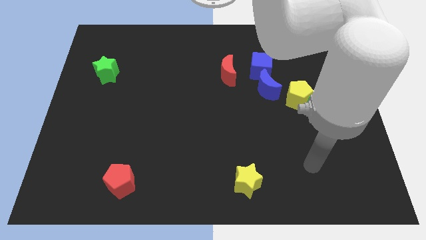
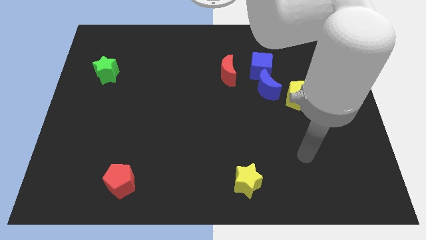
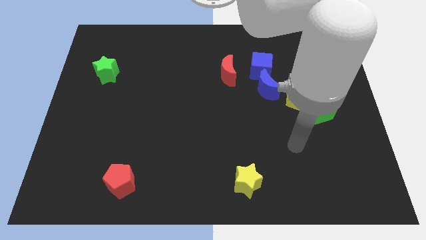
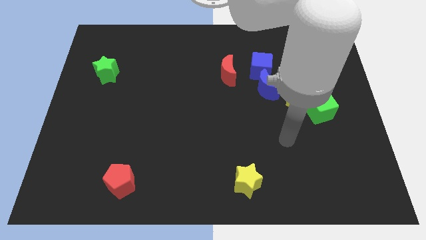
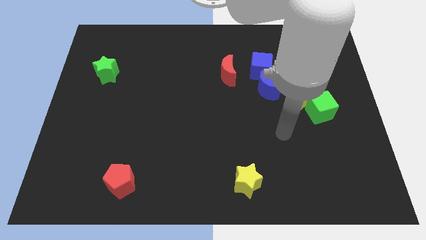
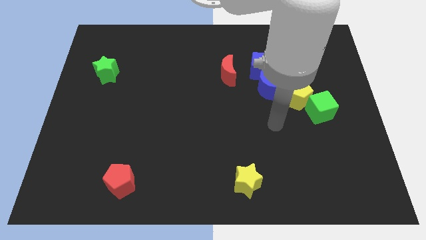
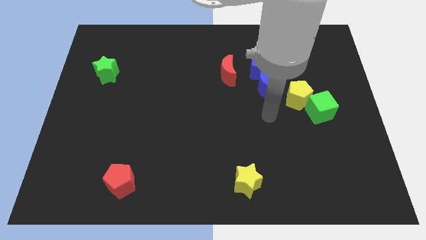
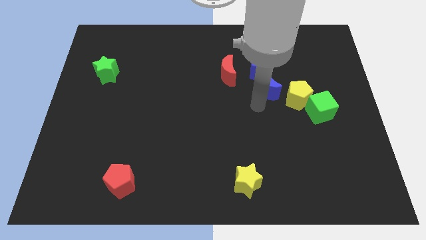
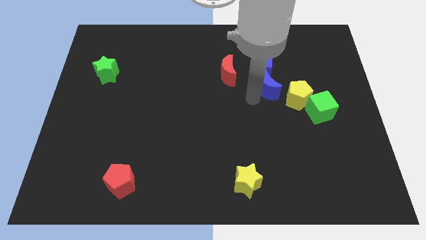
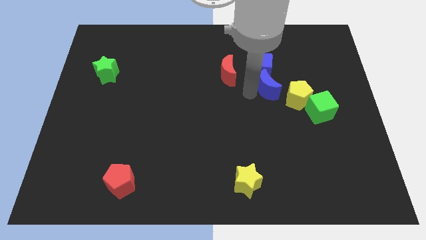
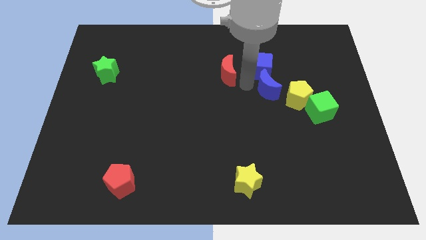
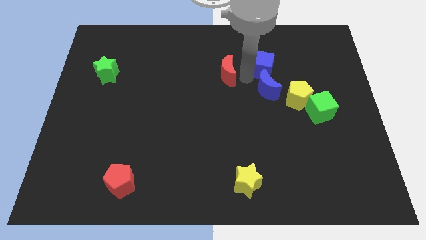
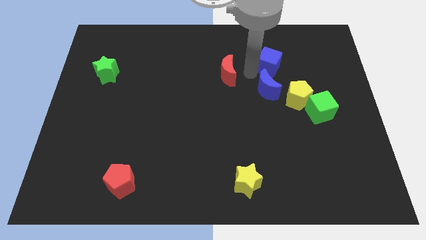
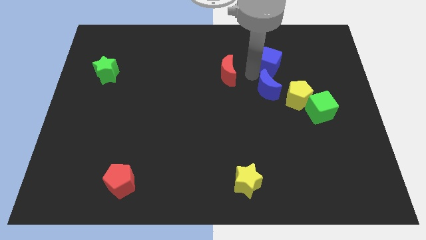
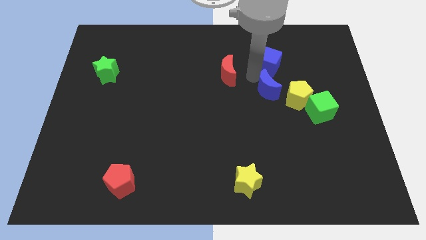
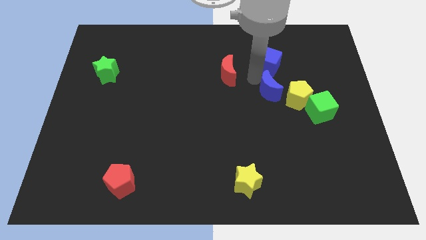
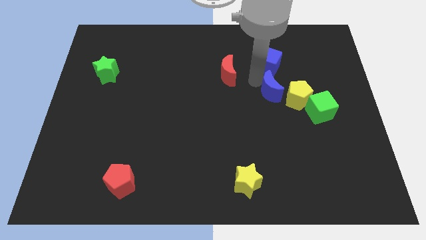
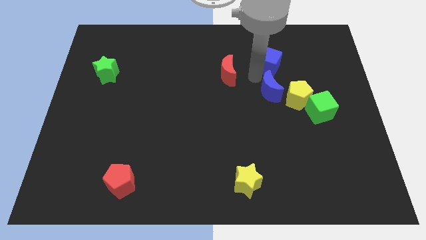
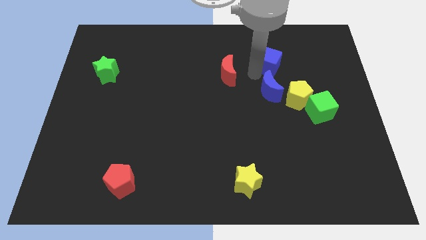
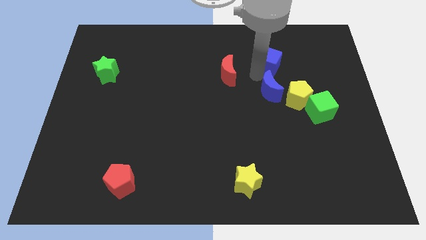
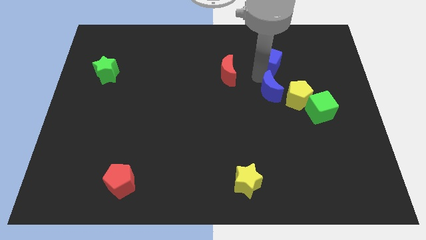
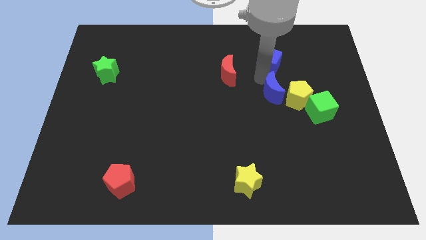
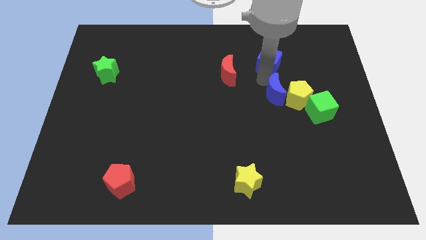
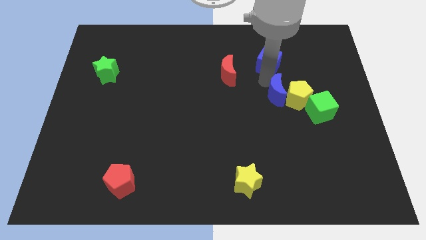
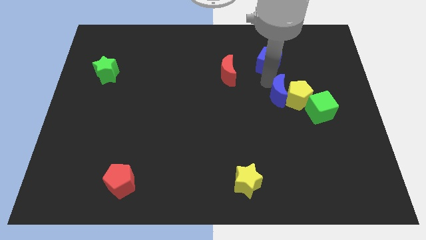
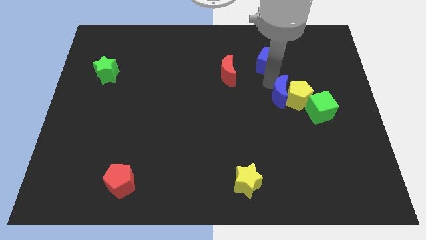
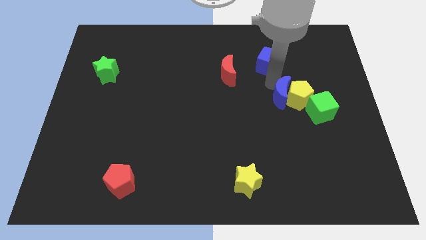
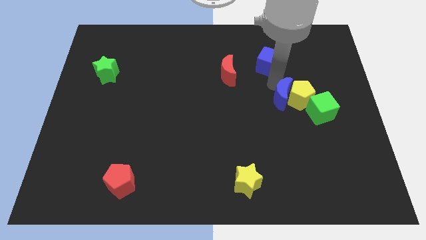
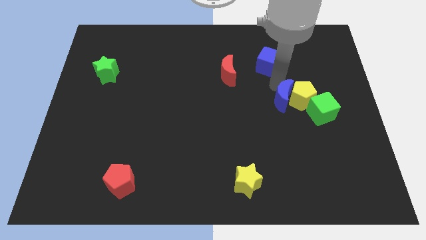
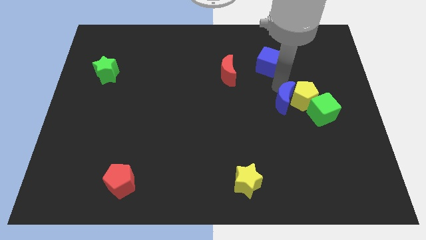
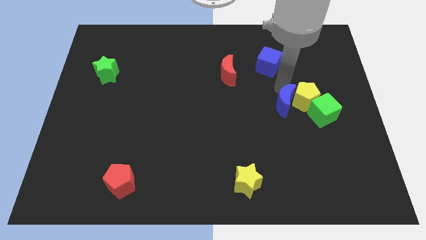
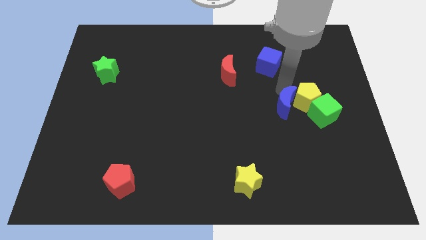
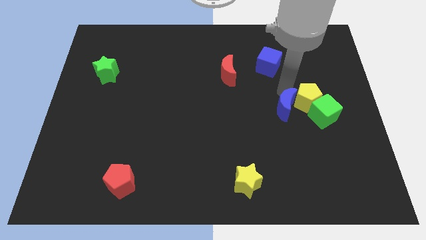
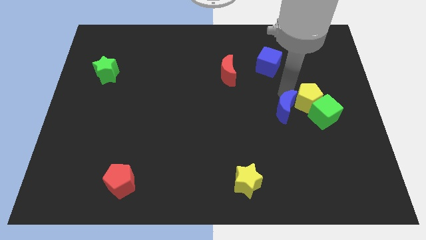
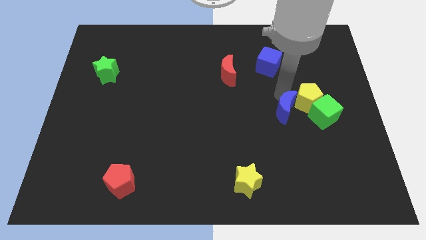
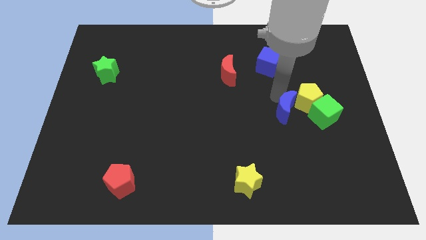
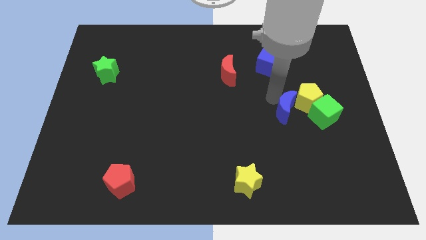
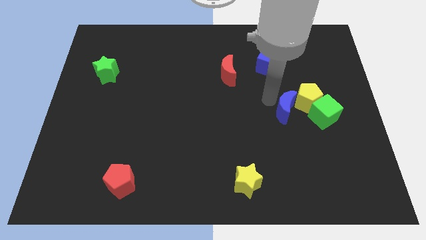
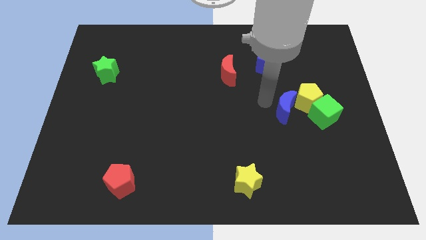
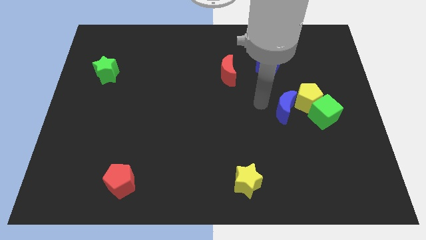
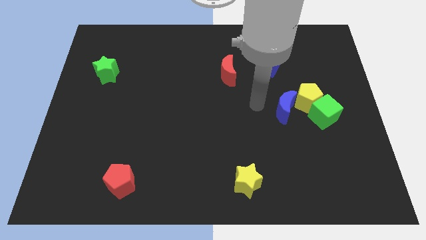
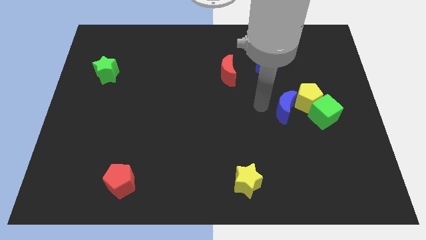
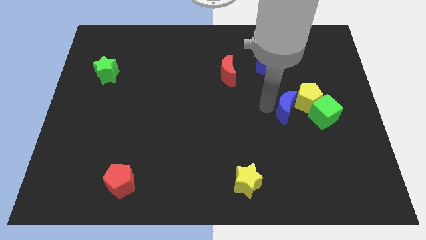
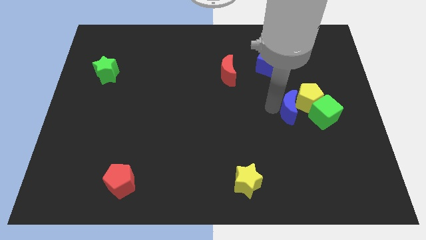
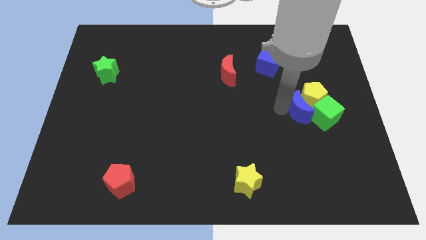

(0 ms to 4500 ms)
move the blue moon towards the green cube

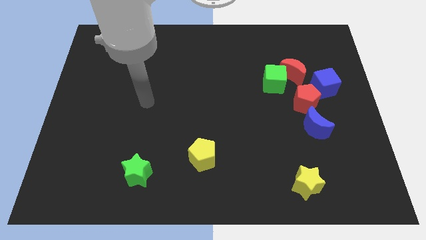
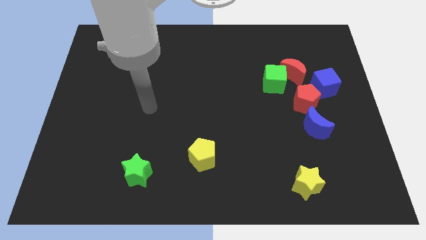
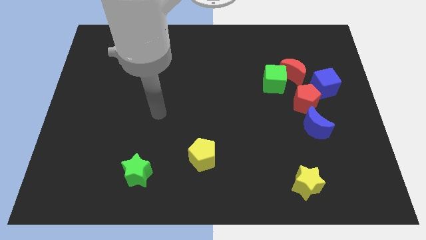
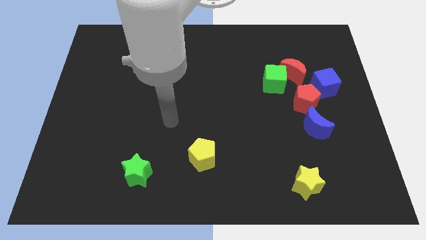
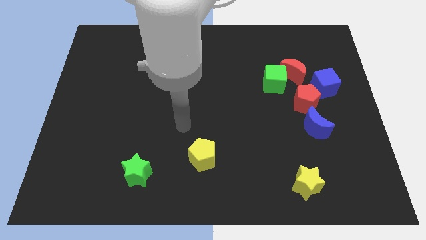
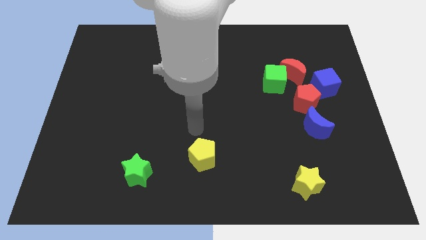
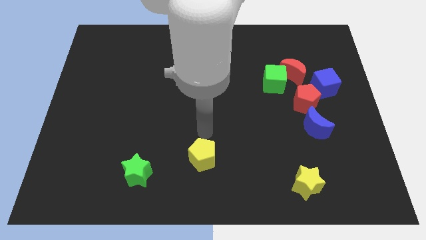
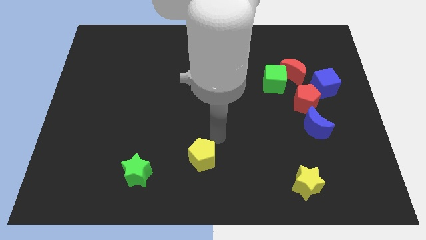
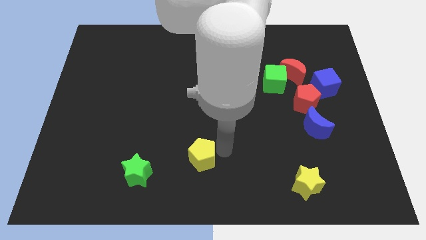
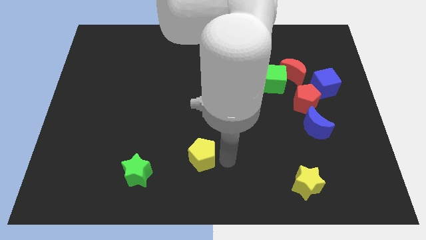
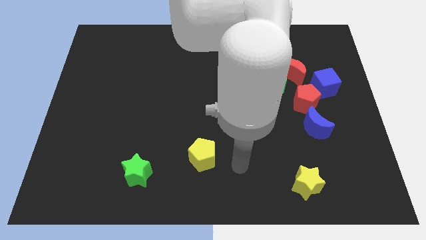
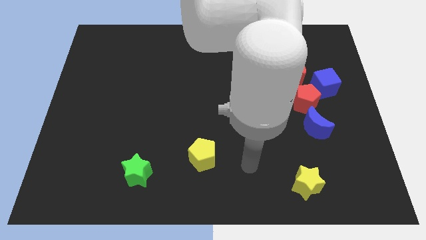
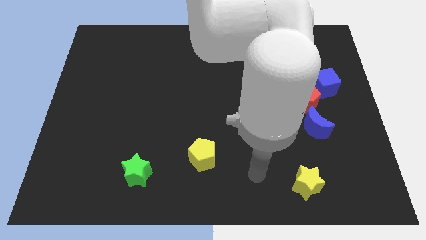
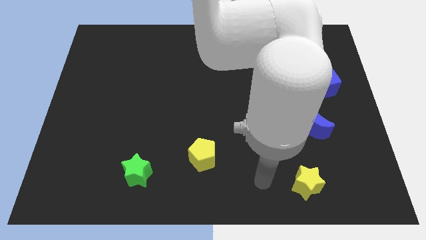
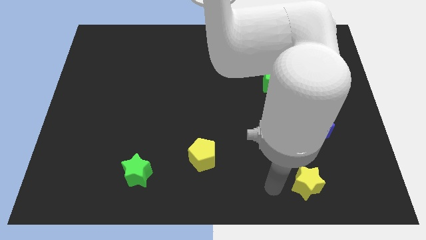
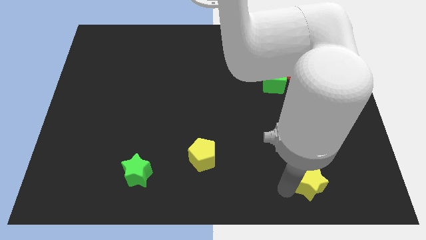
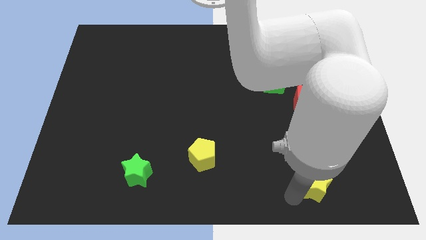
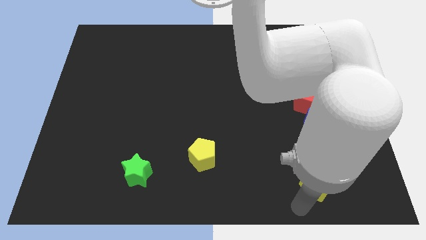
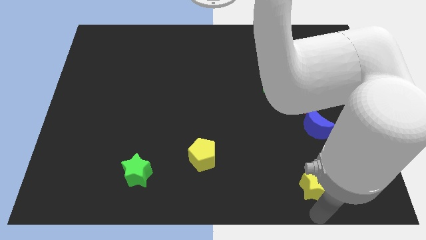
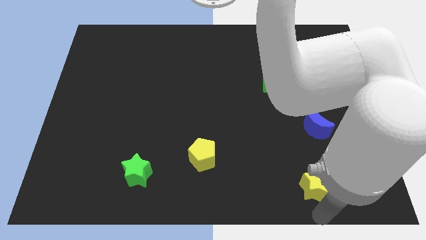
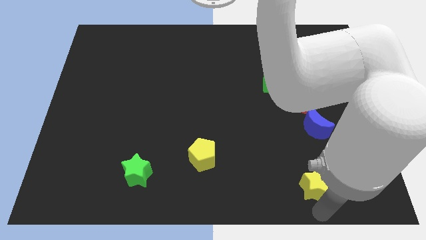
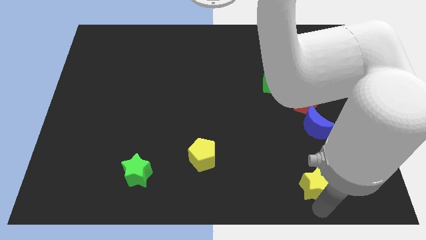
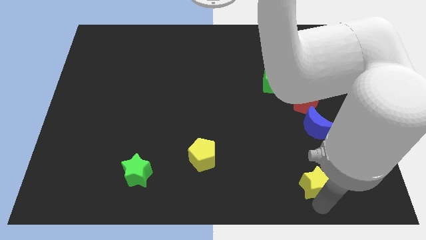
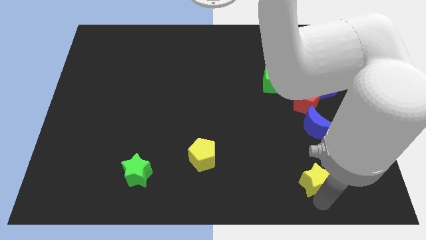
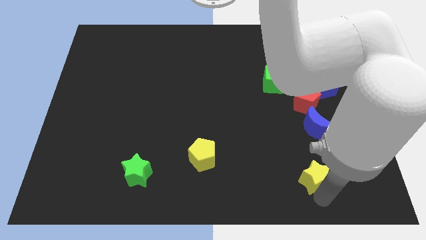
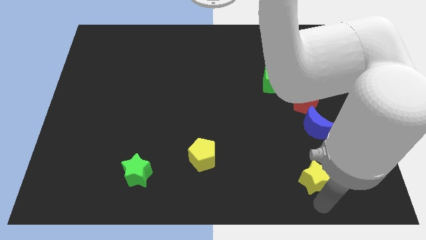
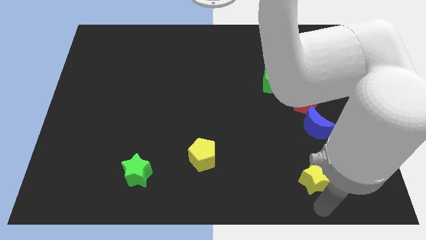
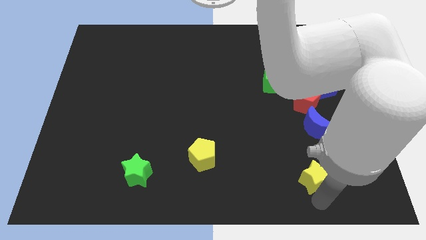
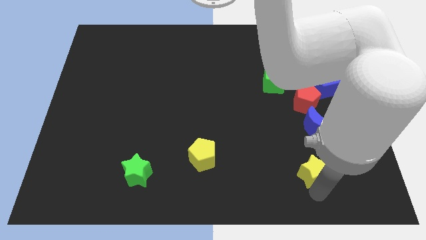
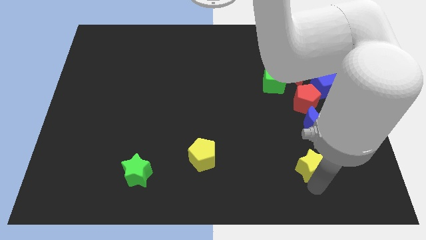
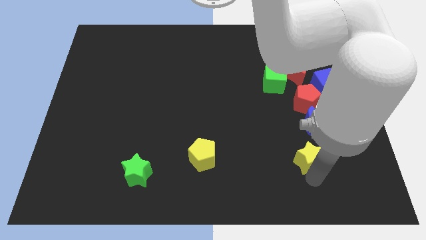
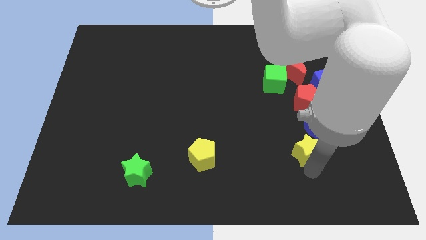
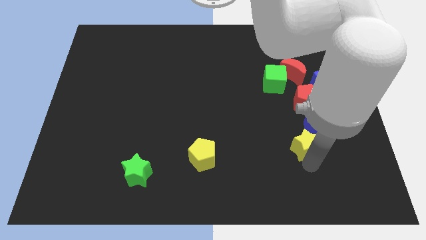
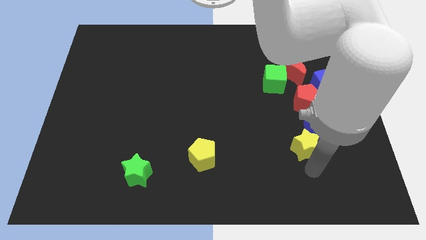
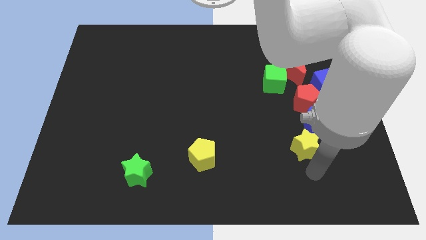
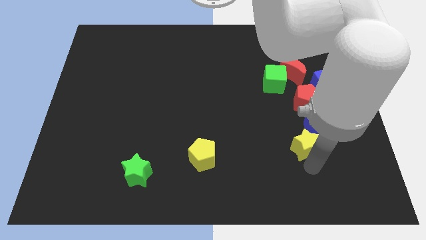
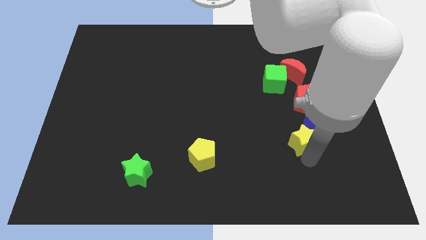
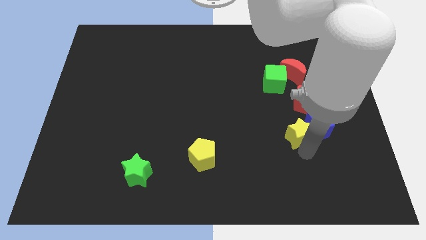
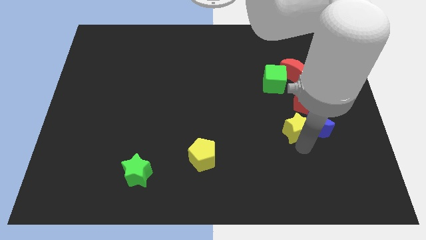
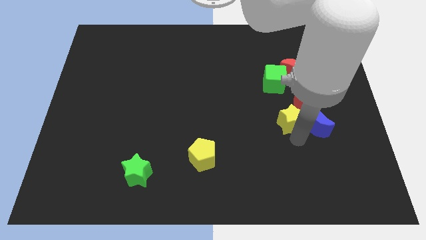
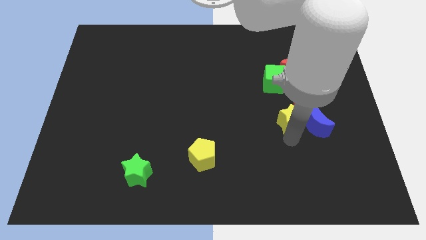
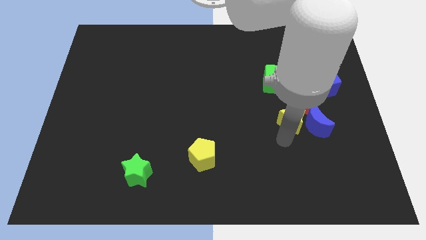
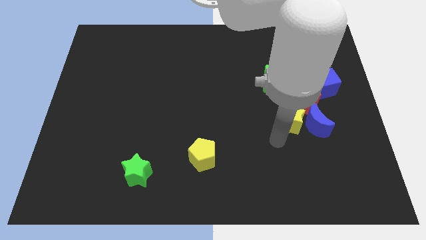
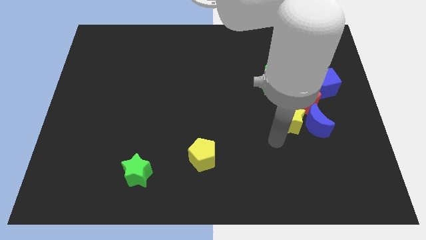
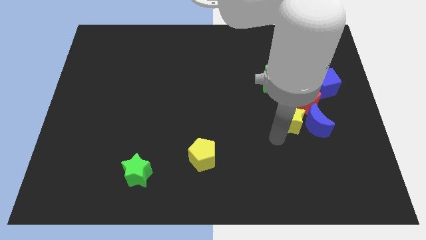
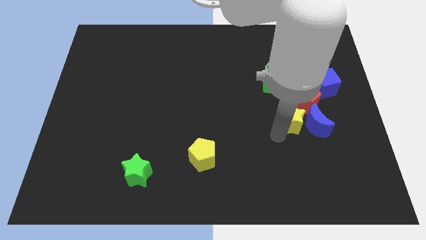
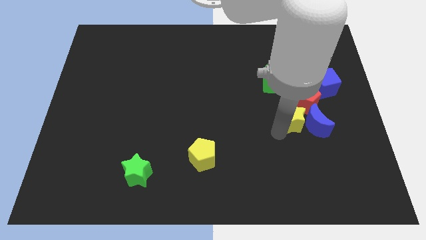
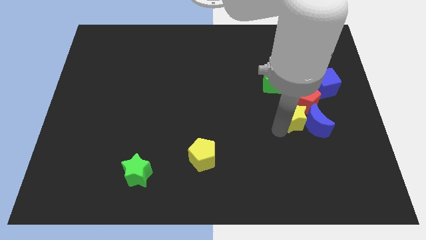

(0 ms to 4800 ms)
slide the yellow star close to the red pentagon
